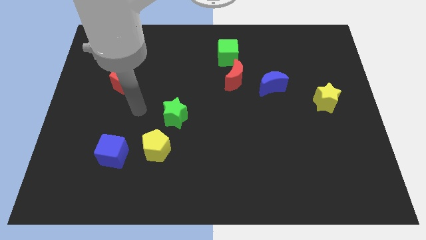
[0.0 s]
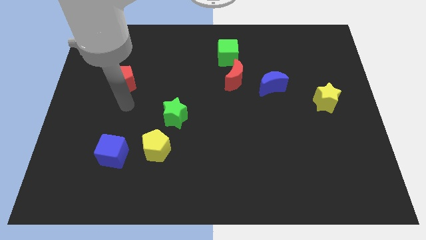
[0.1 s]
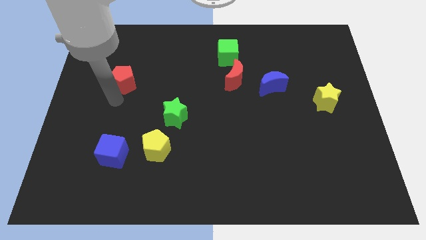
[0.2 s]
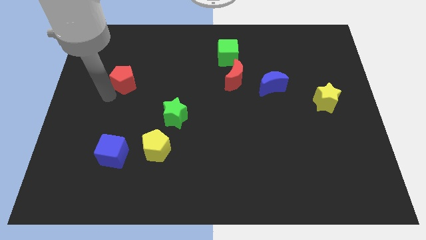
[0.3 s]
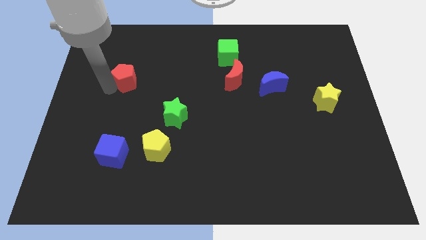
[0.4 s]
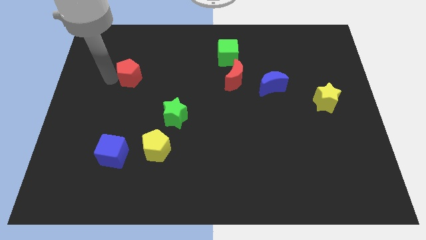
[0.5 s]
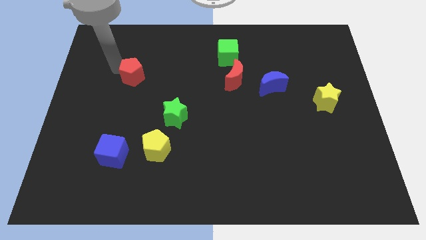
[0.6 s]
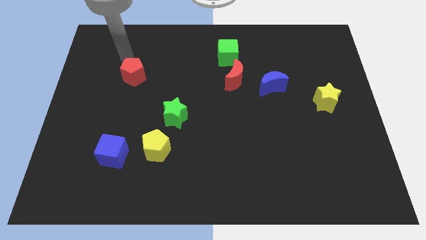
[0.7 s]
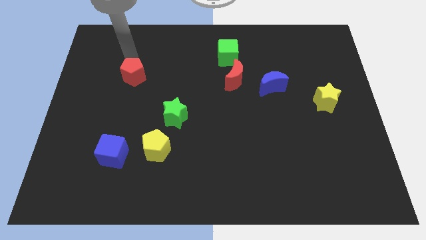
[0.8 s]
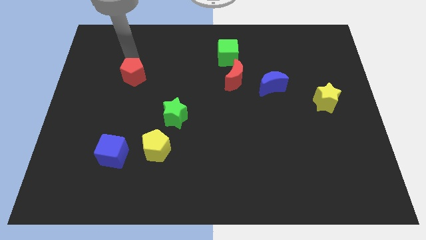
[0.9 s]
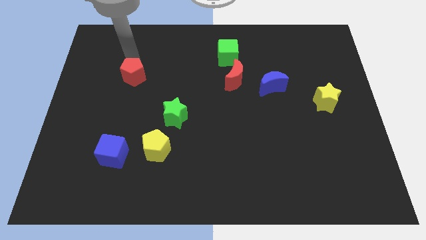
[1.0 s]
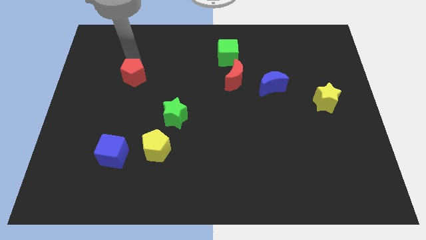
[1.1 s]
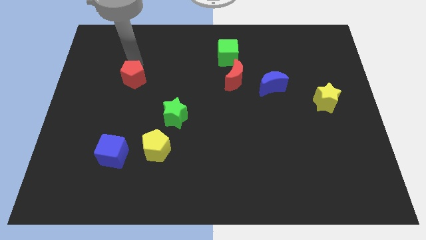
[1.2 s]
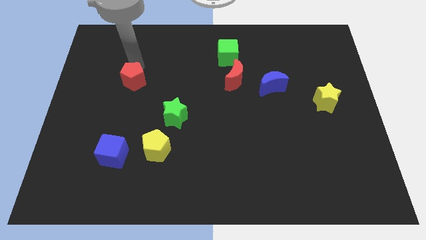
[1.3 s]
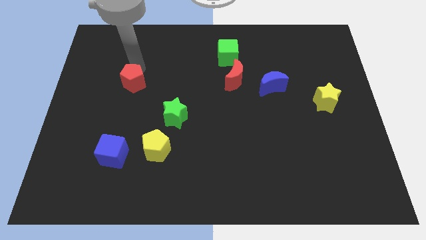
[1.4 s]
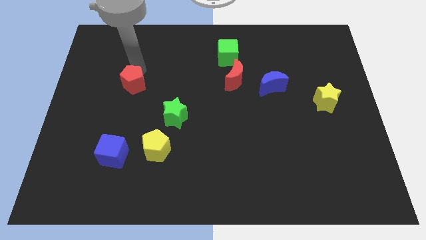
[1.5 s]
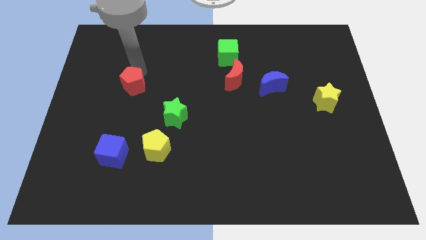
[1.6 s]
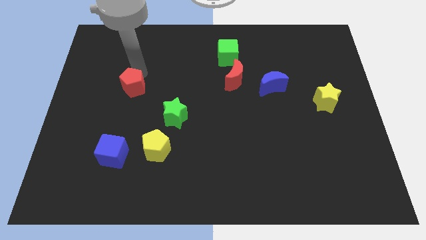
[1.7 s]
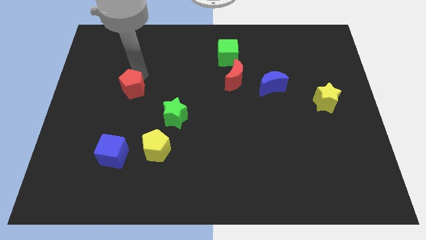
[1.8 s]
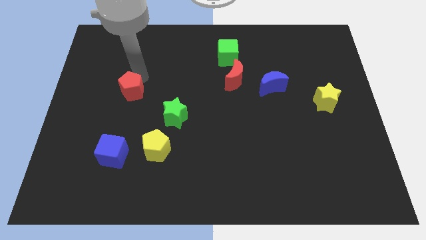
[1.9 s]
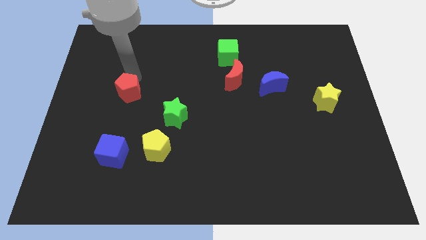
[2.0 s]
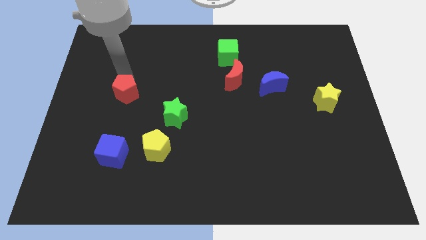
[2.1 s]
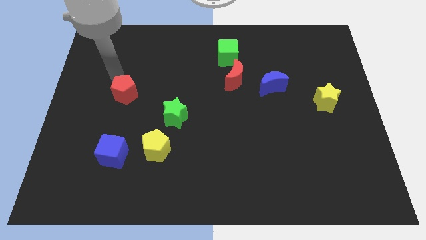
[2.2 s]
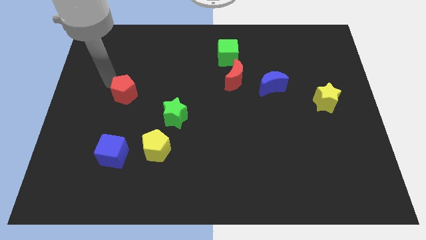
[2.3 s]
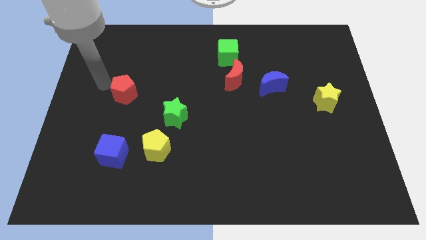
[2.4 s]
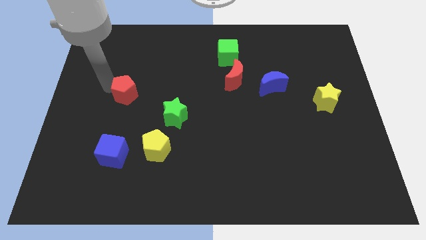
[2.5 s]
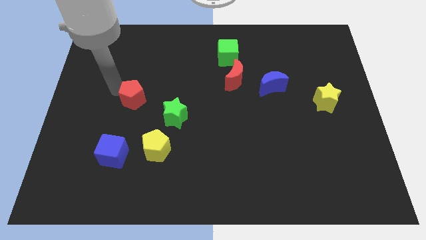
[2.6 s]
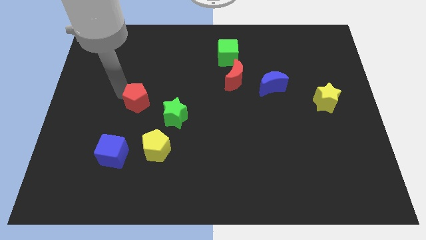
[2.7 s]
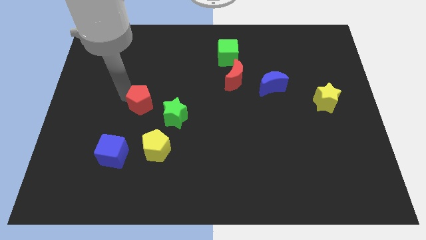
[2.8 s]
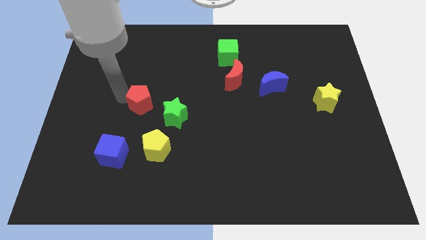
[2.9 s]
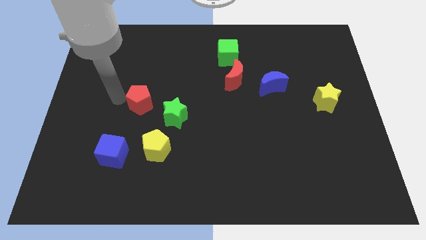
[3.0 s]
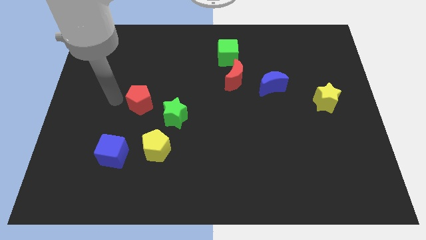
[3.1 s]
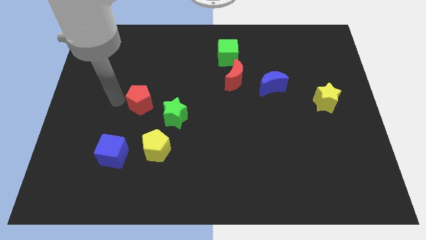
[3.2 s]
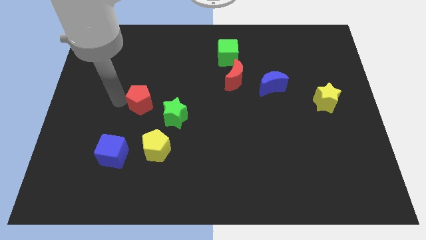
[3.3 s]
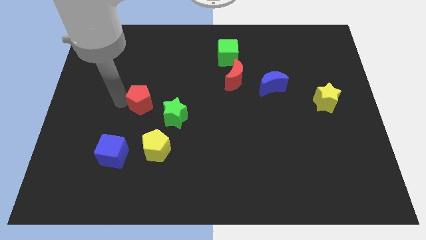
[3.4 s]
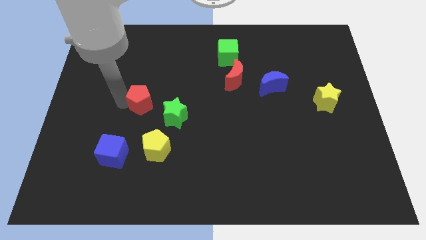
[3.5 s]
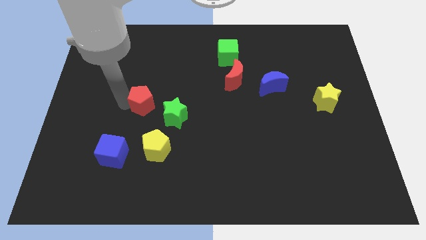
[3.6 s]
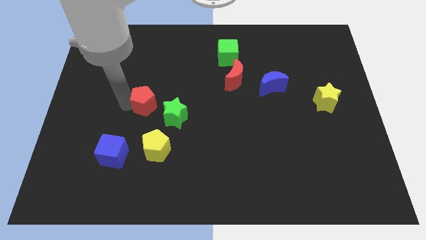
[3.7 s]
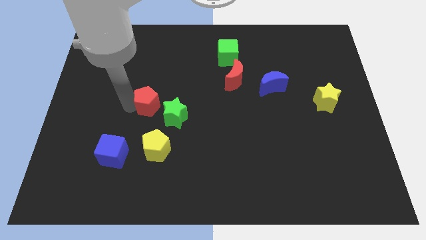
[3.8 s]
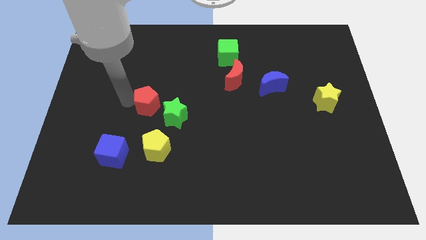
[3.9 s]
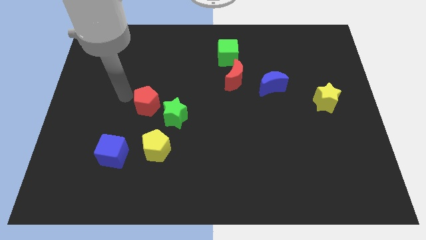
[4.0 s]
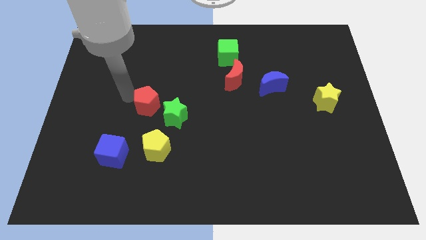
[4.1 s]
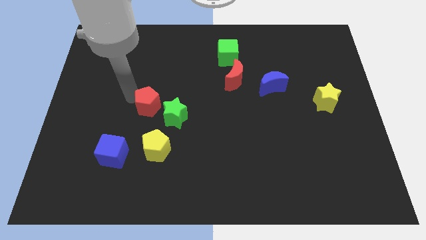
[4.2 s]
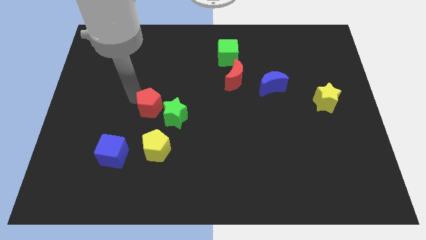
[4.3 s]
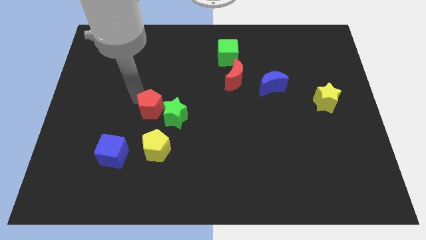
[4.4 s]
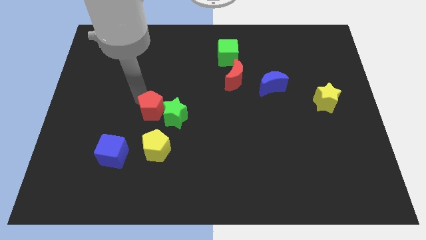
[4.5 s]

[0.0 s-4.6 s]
move the red pentagon close to the green star

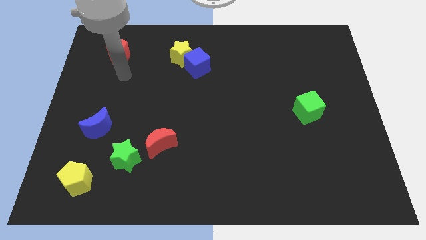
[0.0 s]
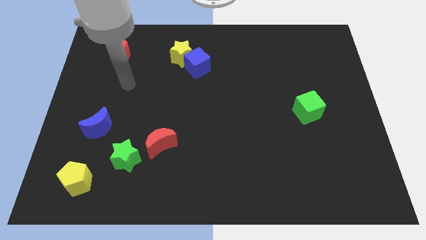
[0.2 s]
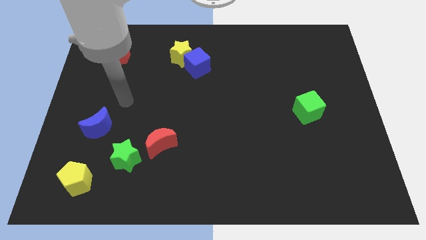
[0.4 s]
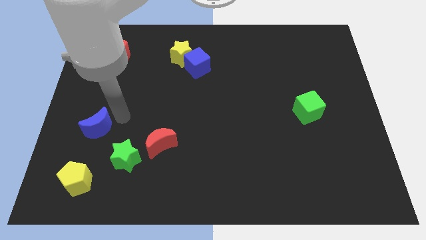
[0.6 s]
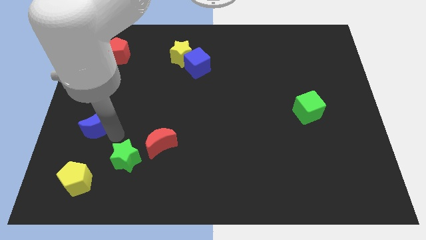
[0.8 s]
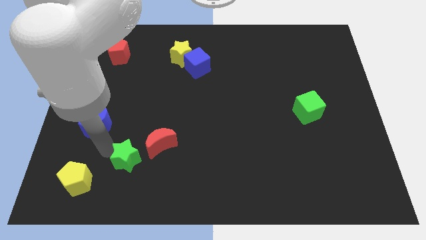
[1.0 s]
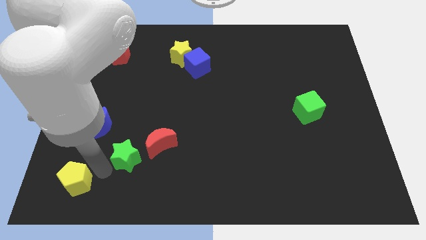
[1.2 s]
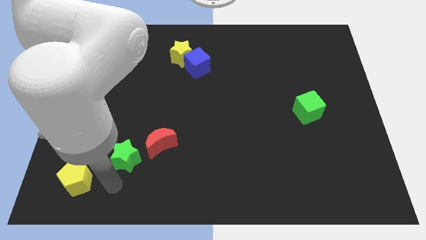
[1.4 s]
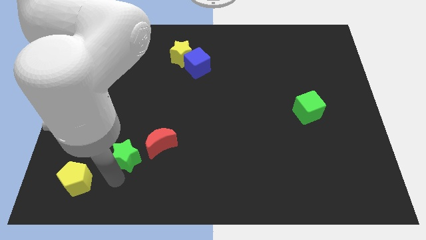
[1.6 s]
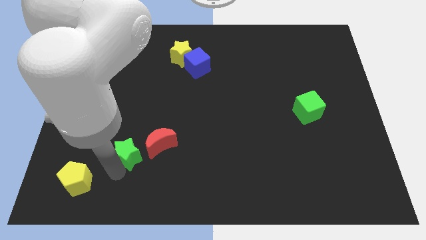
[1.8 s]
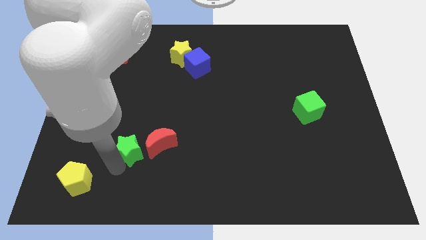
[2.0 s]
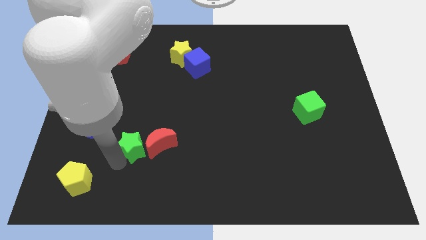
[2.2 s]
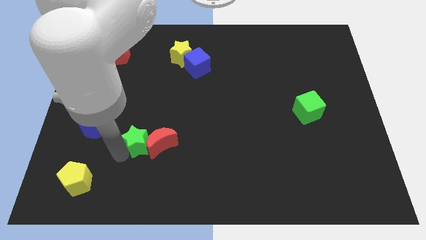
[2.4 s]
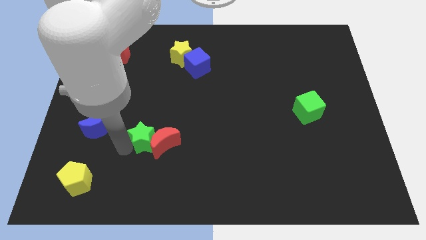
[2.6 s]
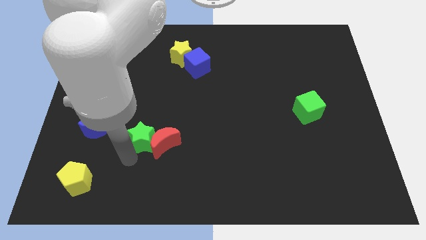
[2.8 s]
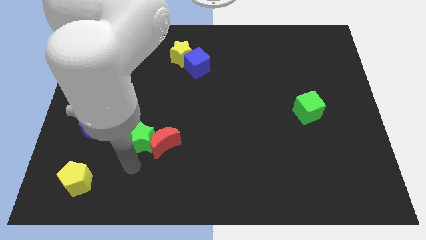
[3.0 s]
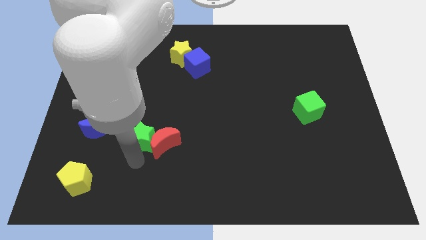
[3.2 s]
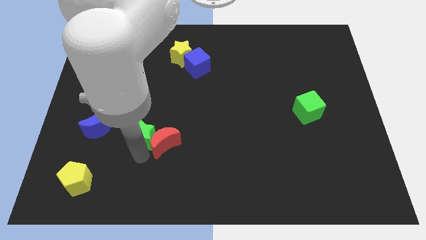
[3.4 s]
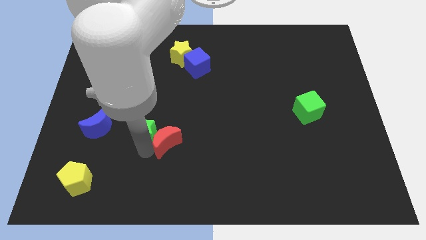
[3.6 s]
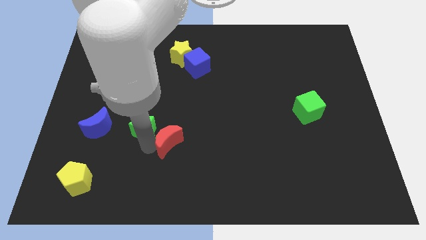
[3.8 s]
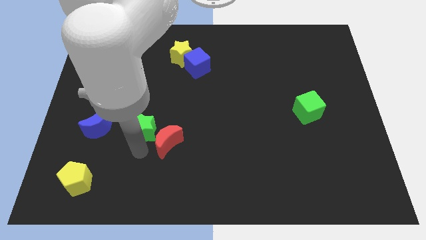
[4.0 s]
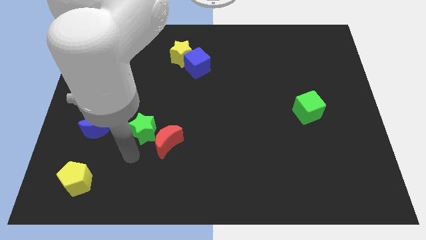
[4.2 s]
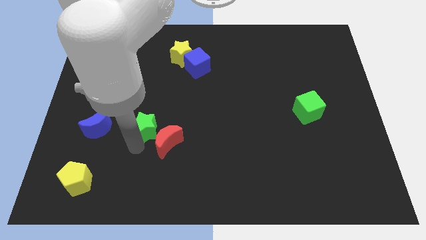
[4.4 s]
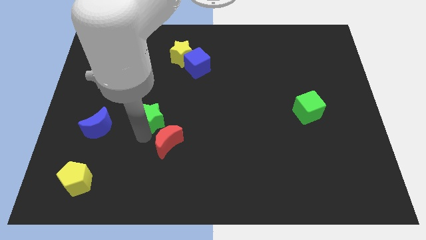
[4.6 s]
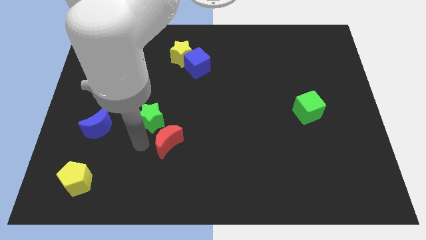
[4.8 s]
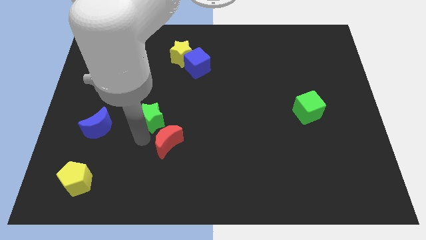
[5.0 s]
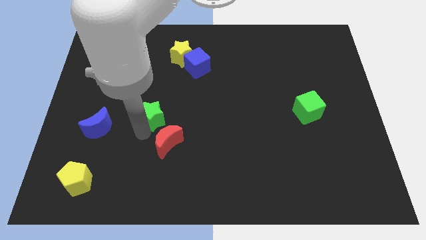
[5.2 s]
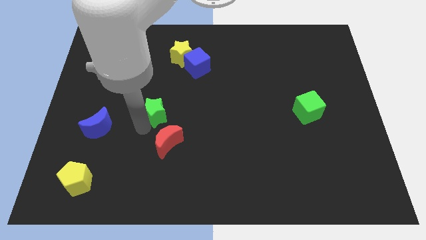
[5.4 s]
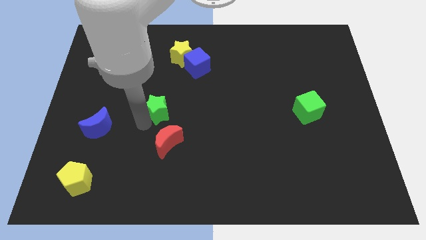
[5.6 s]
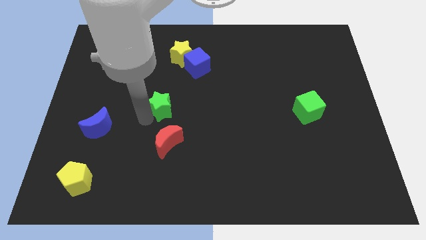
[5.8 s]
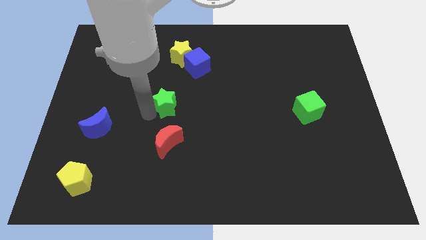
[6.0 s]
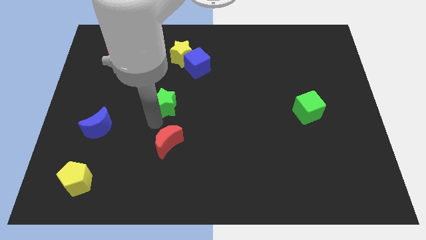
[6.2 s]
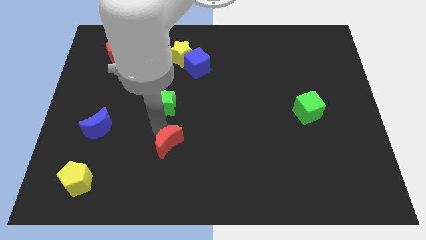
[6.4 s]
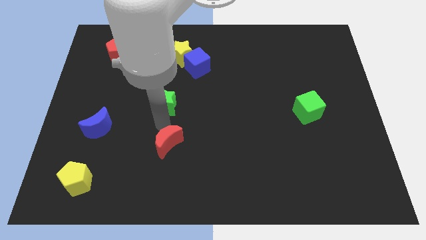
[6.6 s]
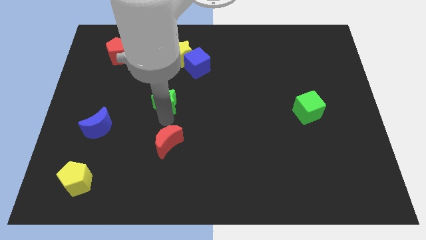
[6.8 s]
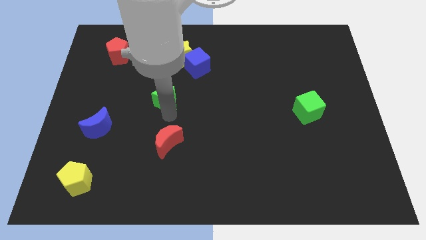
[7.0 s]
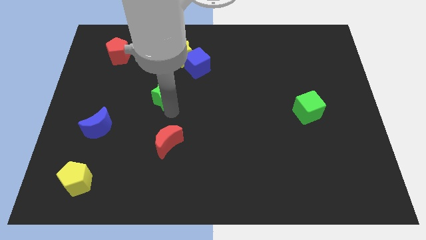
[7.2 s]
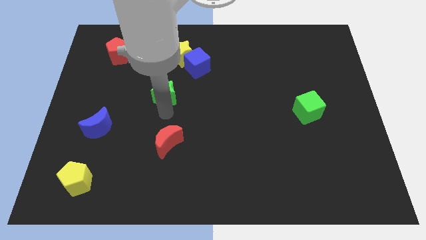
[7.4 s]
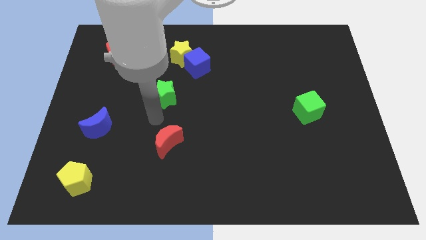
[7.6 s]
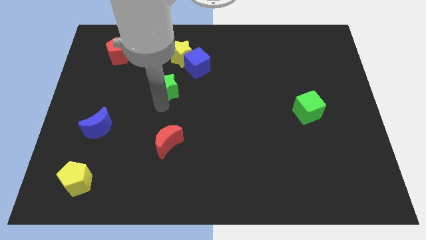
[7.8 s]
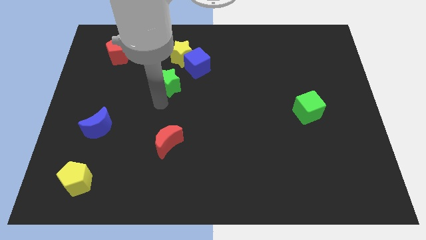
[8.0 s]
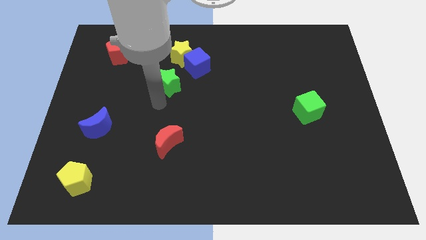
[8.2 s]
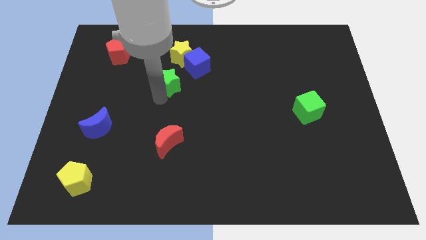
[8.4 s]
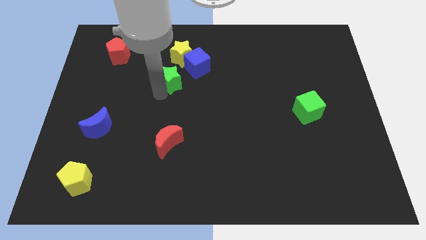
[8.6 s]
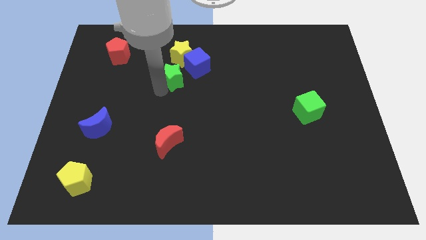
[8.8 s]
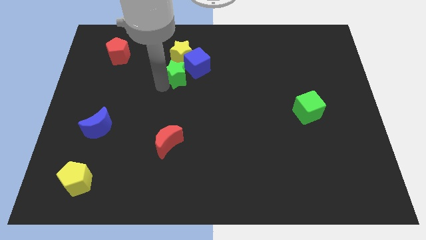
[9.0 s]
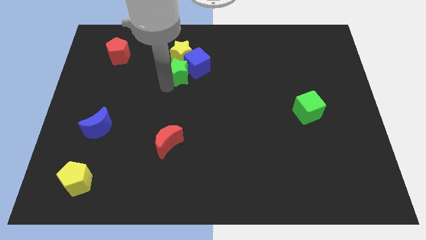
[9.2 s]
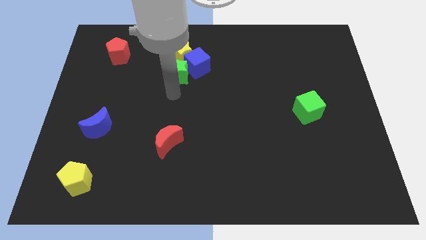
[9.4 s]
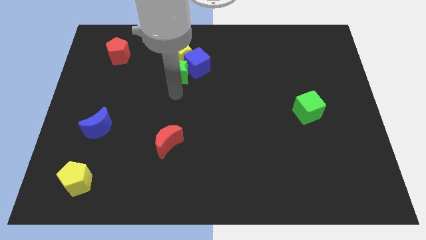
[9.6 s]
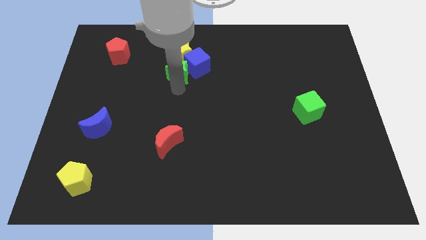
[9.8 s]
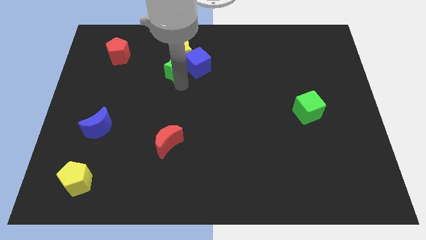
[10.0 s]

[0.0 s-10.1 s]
push the green star towards the yellow star
